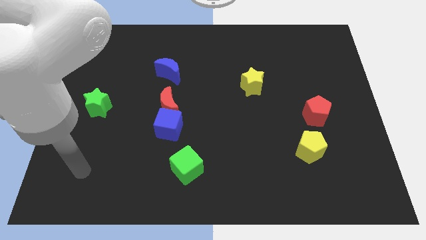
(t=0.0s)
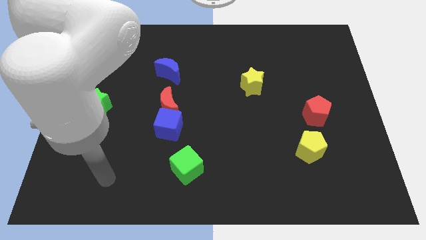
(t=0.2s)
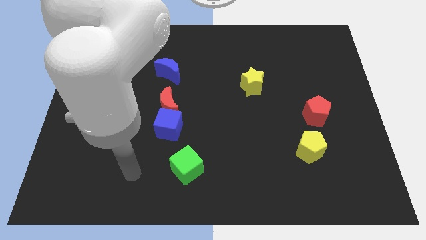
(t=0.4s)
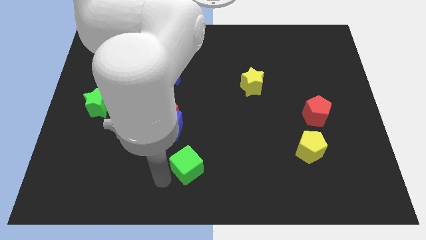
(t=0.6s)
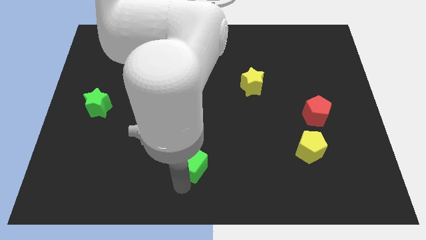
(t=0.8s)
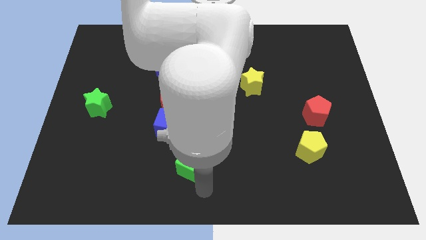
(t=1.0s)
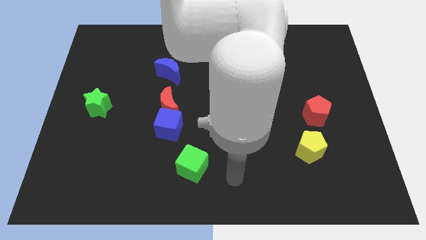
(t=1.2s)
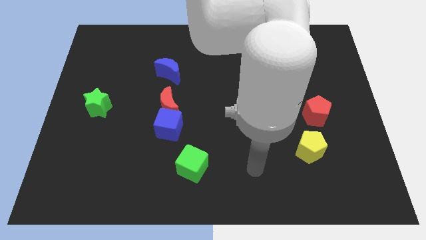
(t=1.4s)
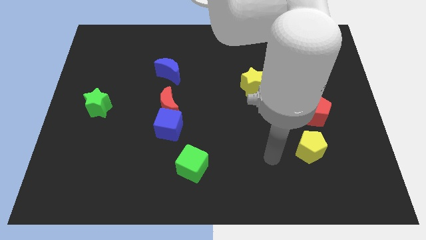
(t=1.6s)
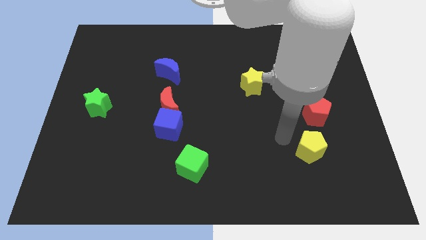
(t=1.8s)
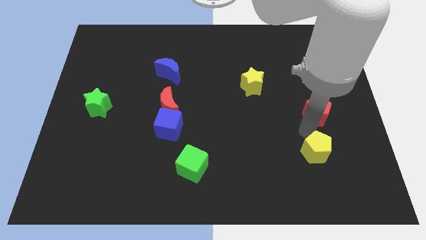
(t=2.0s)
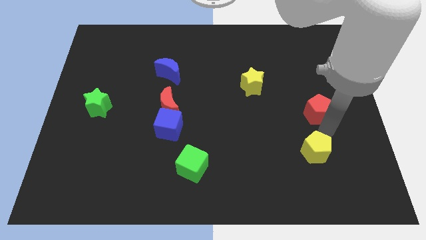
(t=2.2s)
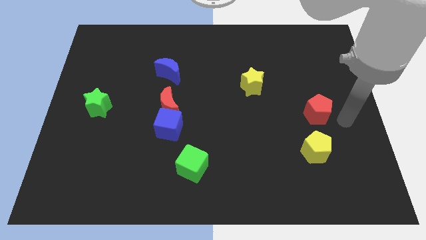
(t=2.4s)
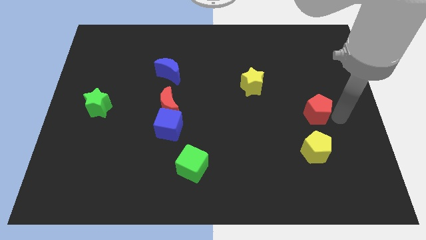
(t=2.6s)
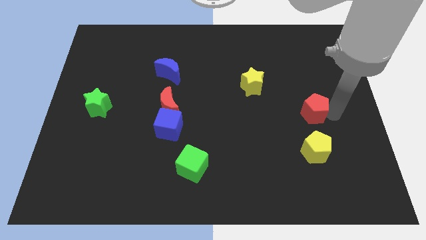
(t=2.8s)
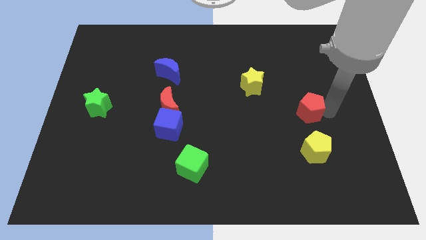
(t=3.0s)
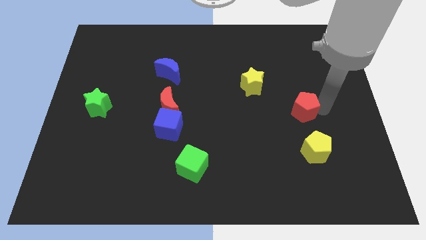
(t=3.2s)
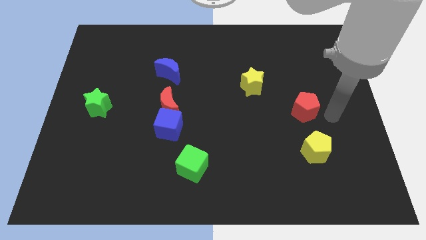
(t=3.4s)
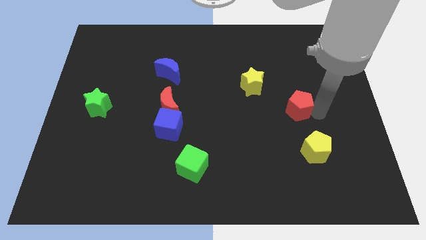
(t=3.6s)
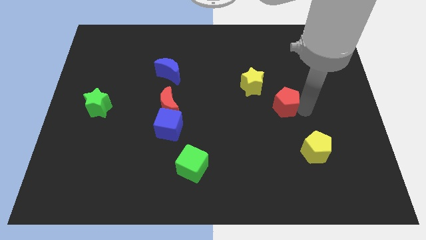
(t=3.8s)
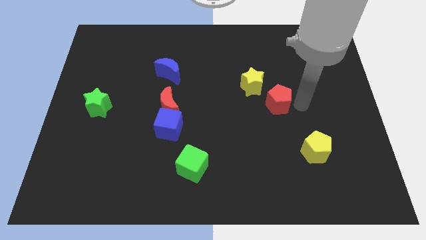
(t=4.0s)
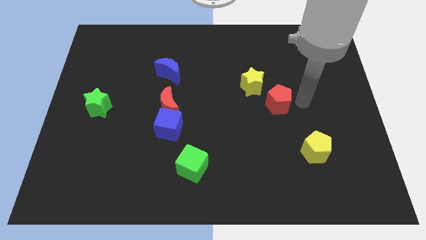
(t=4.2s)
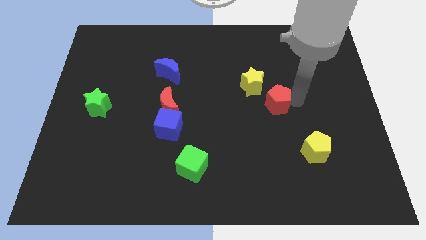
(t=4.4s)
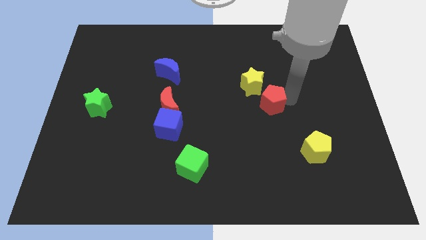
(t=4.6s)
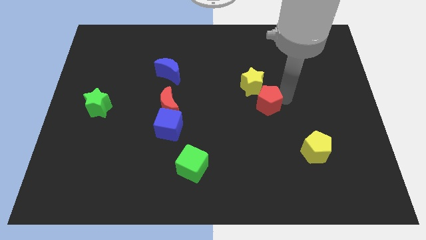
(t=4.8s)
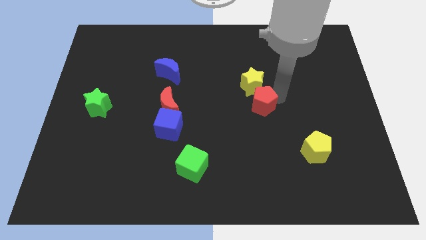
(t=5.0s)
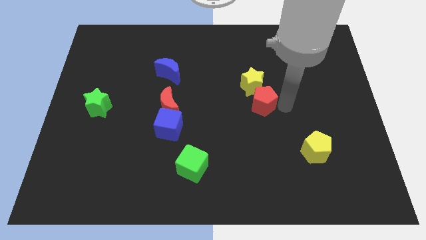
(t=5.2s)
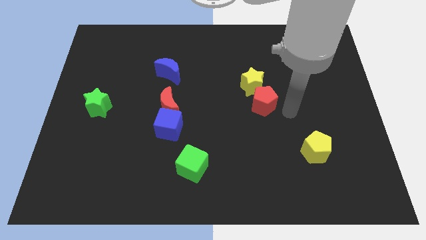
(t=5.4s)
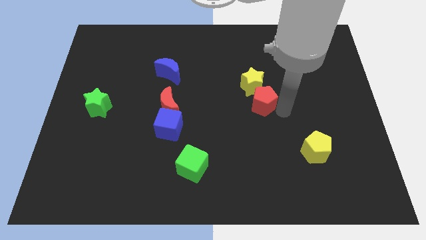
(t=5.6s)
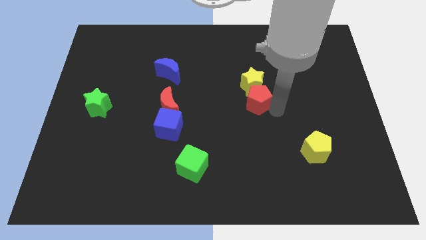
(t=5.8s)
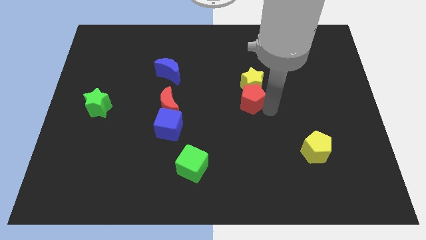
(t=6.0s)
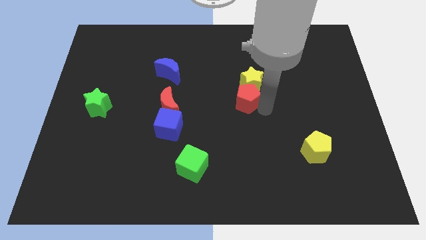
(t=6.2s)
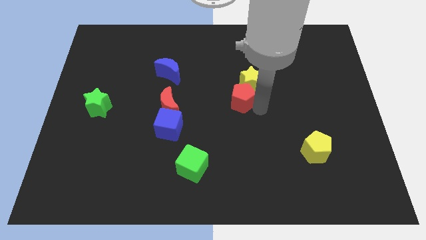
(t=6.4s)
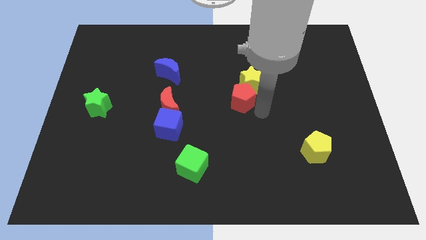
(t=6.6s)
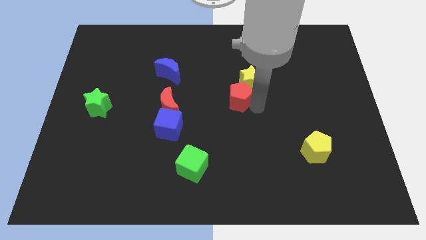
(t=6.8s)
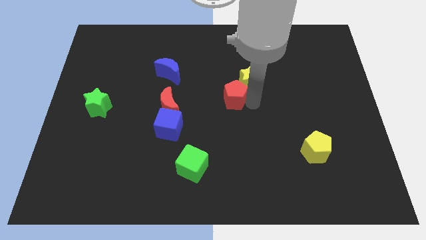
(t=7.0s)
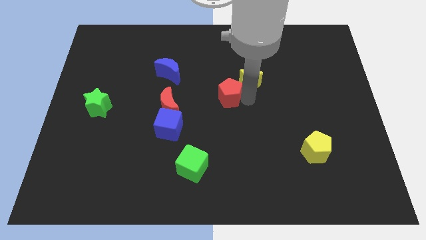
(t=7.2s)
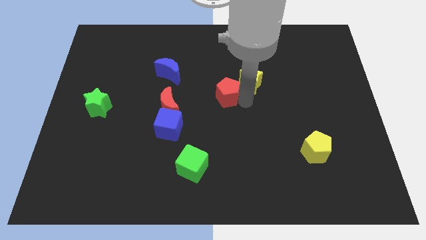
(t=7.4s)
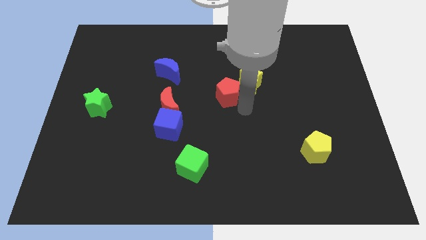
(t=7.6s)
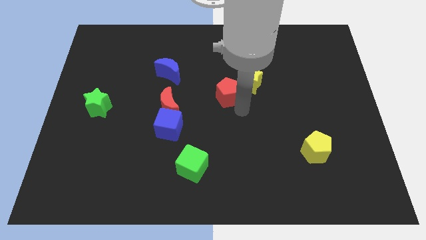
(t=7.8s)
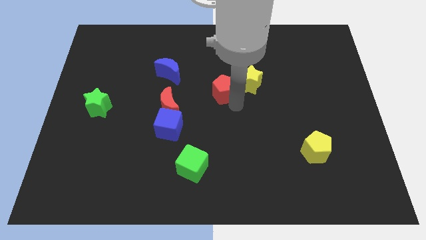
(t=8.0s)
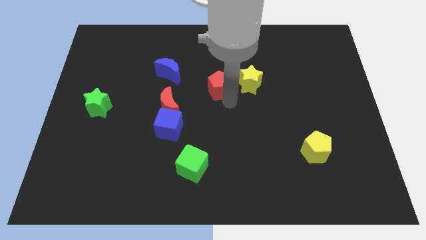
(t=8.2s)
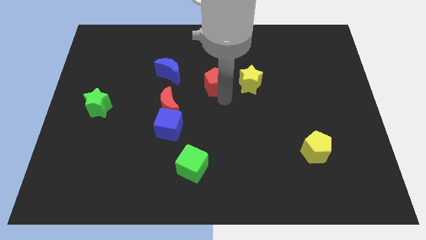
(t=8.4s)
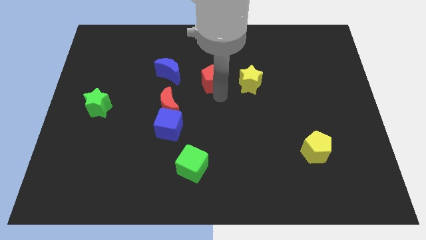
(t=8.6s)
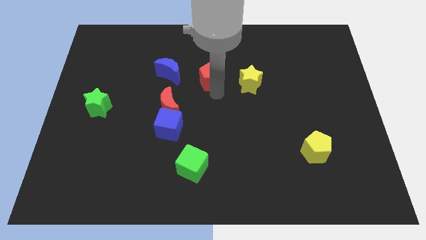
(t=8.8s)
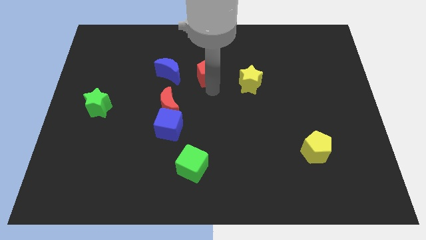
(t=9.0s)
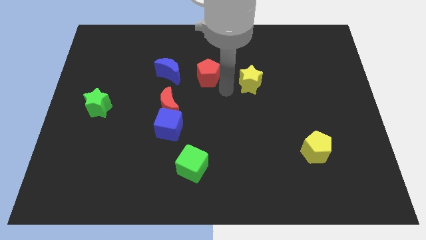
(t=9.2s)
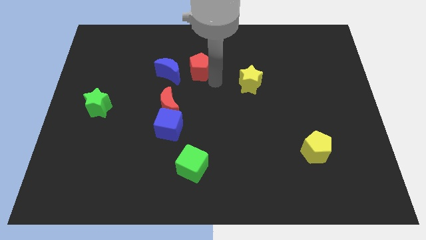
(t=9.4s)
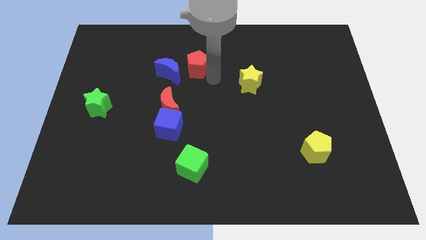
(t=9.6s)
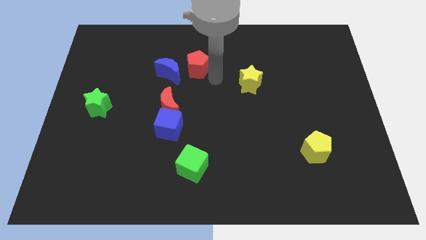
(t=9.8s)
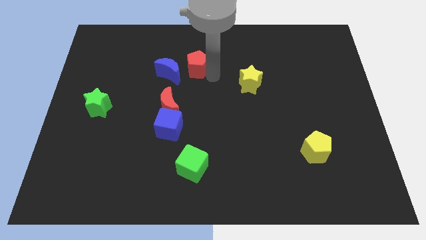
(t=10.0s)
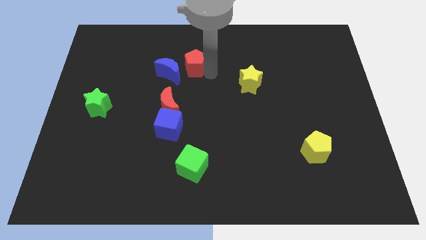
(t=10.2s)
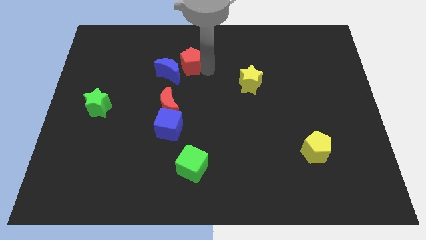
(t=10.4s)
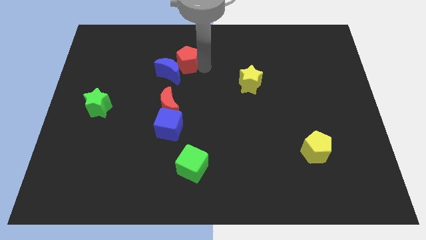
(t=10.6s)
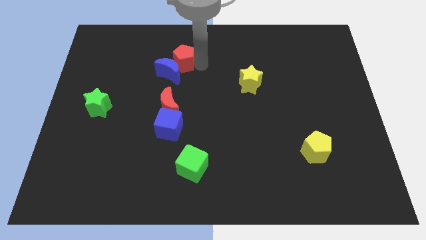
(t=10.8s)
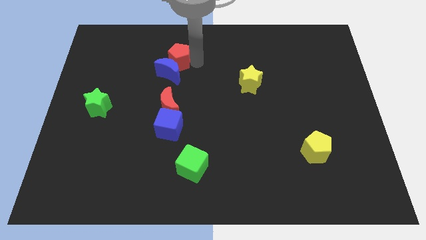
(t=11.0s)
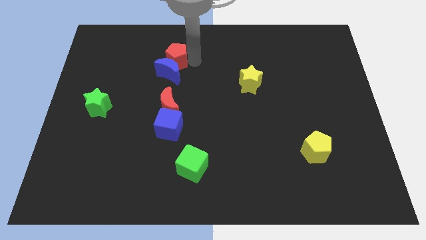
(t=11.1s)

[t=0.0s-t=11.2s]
push the red pentagon to the top left side of the blue moon

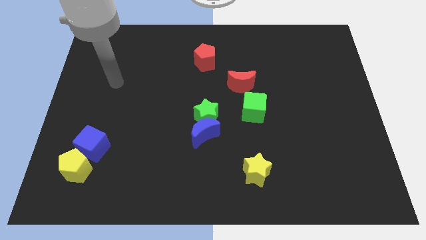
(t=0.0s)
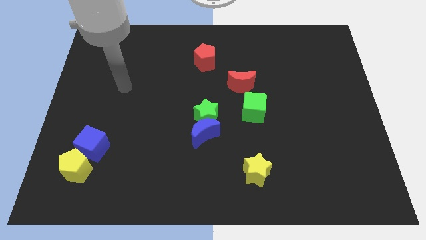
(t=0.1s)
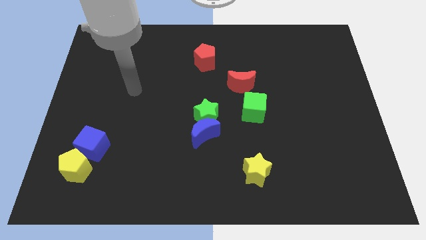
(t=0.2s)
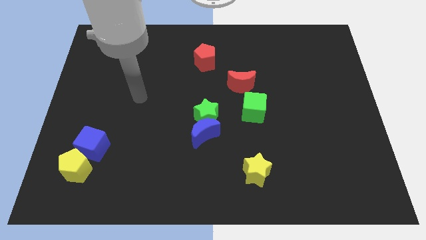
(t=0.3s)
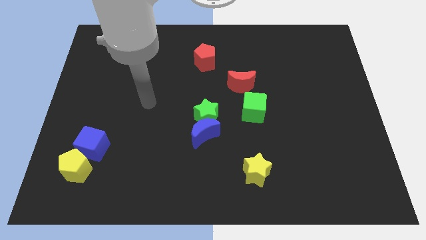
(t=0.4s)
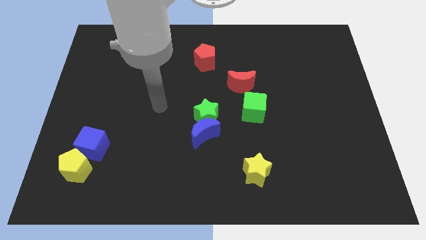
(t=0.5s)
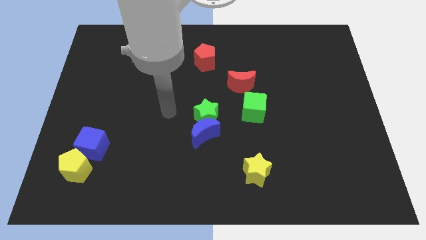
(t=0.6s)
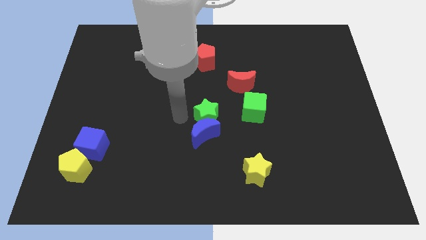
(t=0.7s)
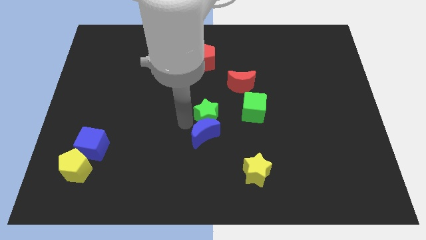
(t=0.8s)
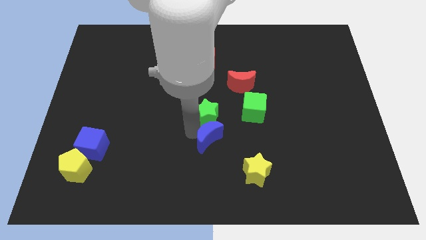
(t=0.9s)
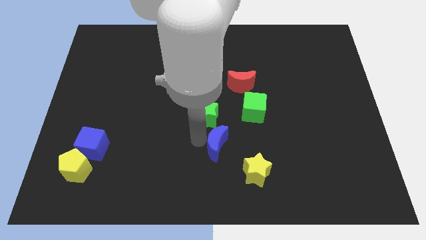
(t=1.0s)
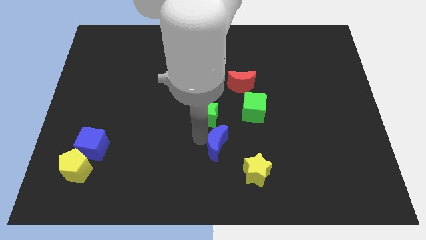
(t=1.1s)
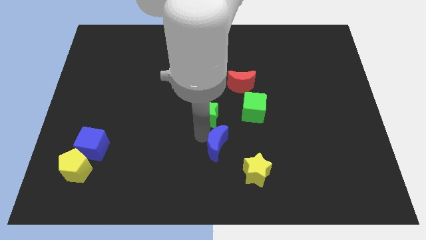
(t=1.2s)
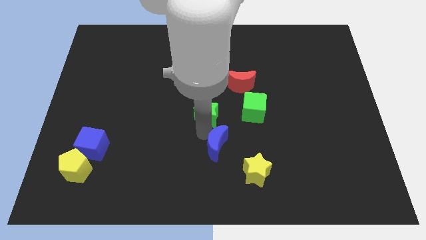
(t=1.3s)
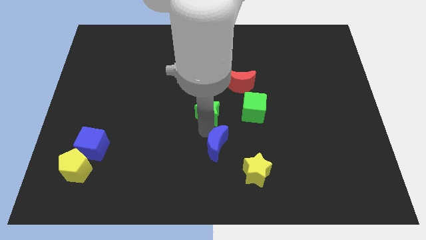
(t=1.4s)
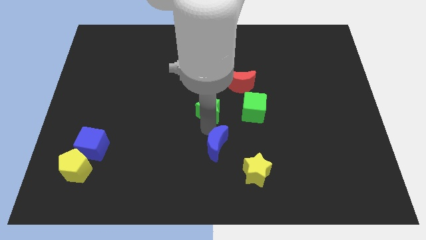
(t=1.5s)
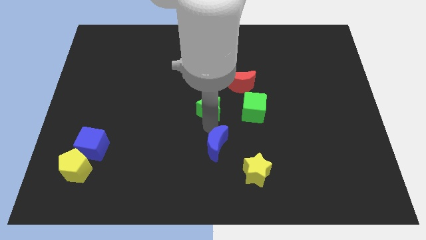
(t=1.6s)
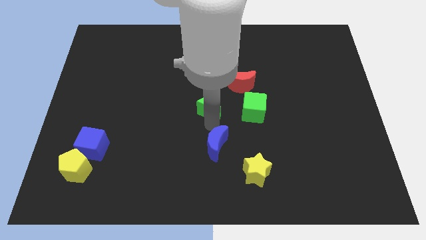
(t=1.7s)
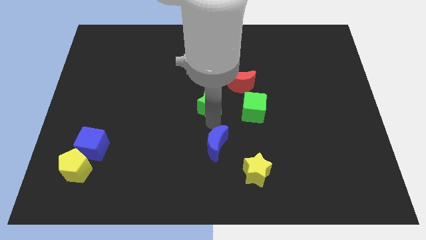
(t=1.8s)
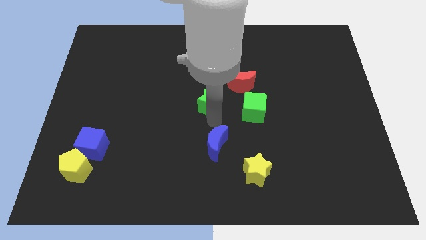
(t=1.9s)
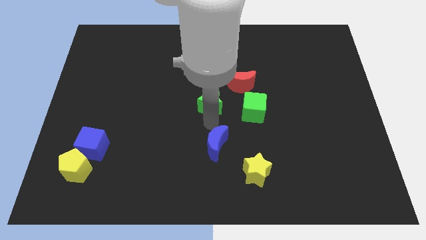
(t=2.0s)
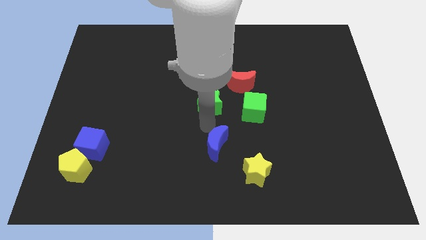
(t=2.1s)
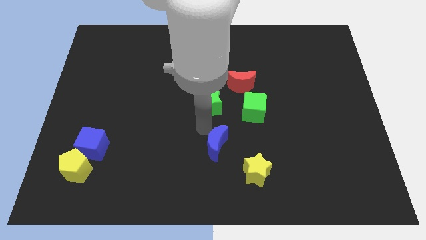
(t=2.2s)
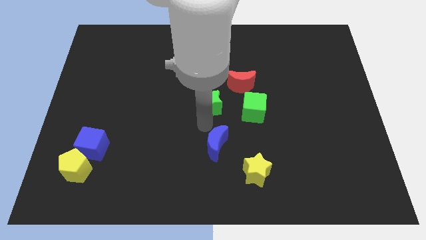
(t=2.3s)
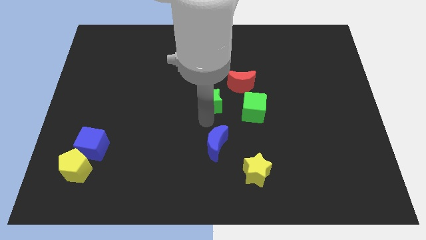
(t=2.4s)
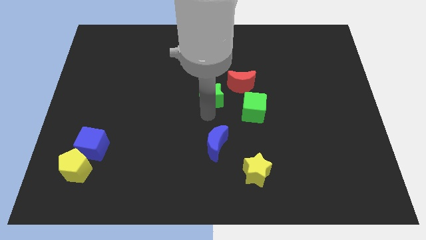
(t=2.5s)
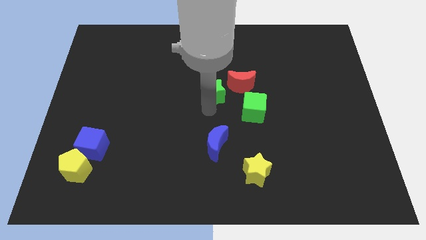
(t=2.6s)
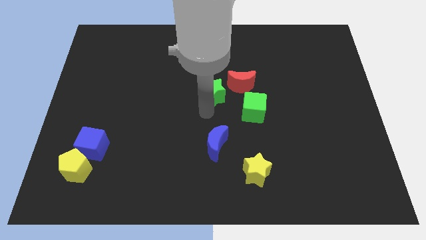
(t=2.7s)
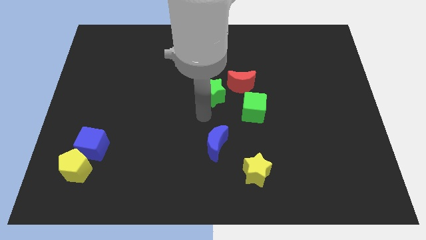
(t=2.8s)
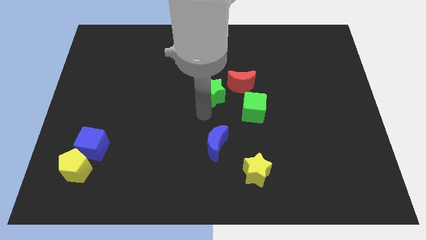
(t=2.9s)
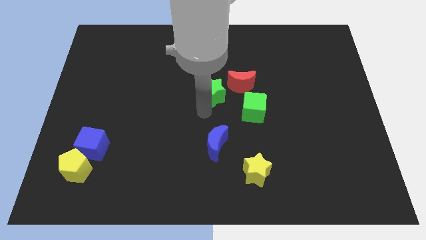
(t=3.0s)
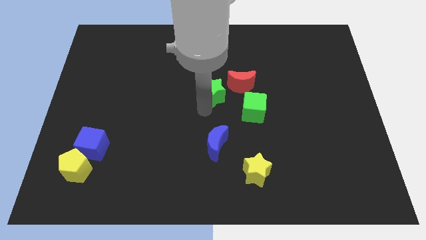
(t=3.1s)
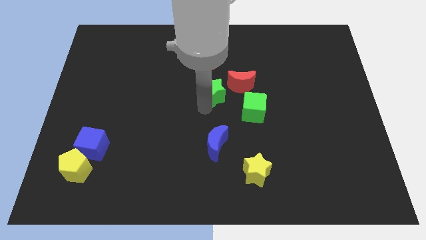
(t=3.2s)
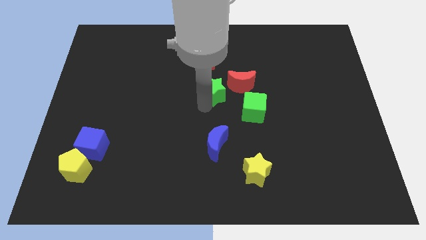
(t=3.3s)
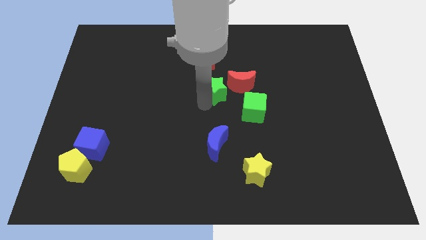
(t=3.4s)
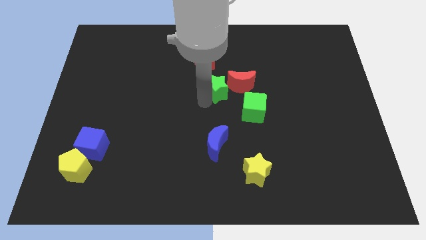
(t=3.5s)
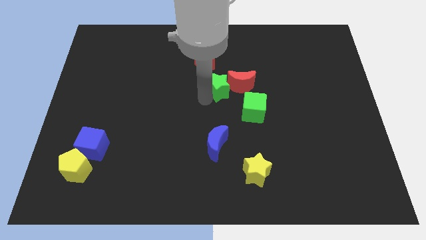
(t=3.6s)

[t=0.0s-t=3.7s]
put the green star diagonally down and to the right of the red pentagon
